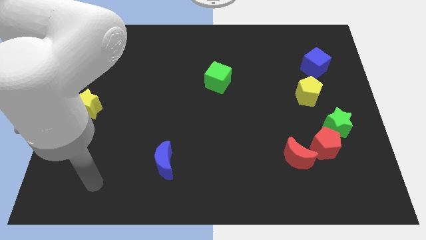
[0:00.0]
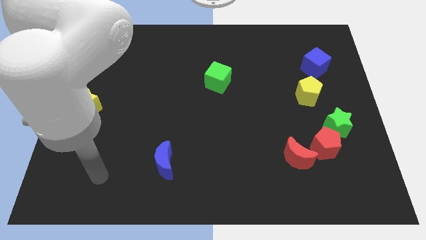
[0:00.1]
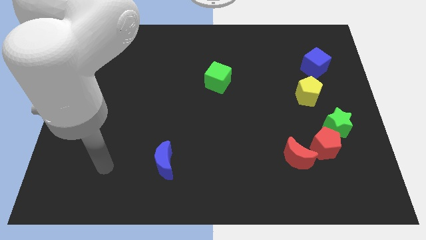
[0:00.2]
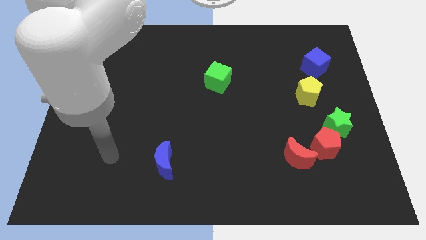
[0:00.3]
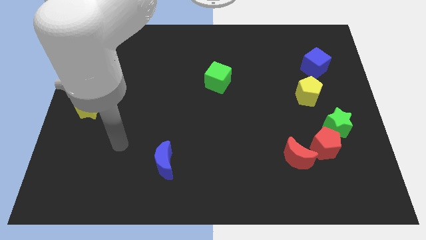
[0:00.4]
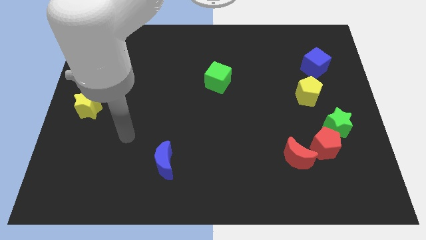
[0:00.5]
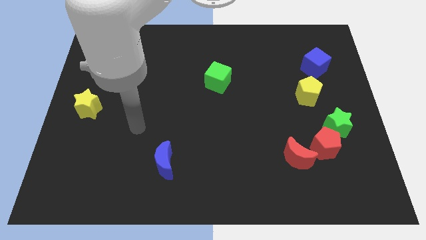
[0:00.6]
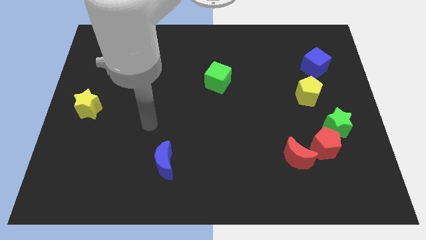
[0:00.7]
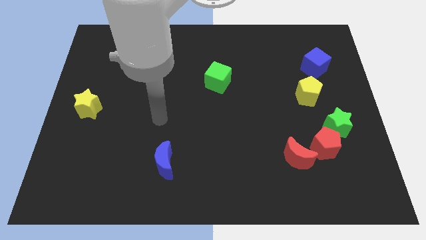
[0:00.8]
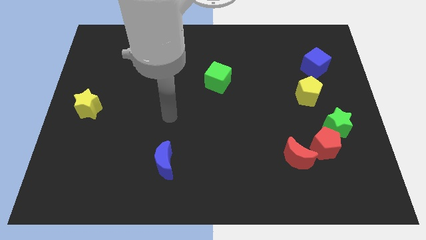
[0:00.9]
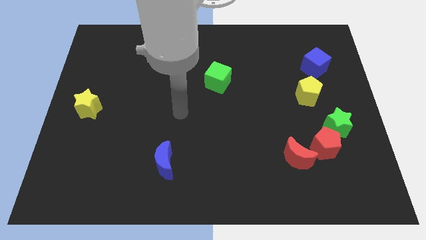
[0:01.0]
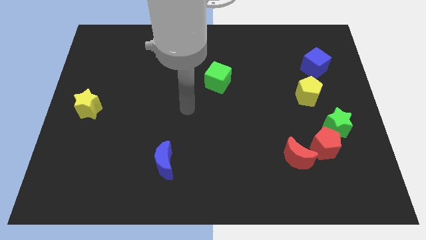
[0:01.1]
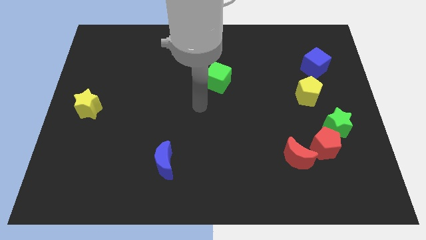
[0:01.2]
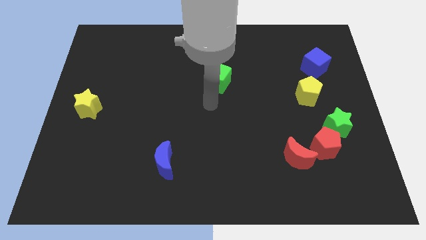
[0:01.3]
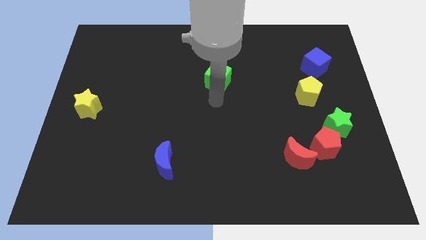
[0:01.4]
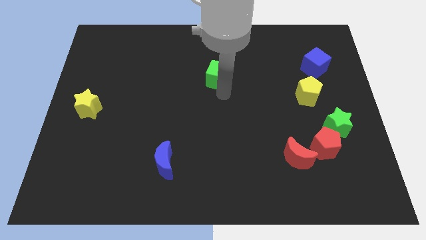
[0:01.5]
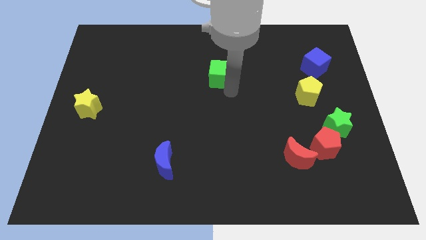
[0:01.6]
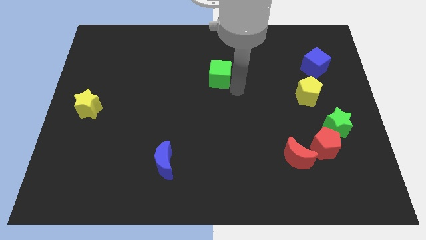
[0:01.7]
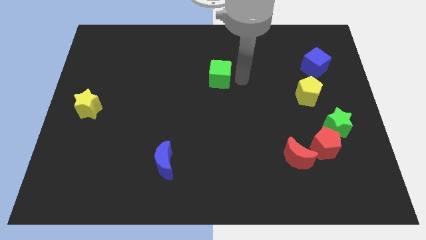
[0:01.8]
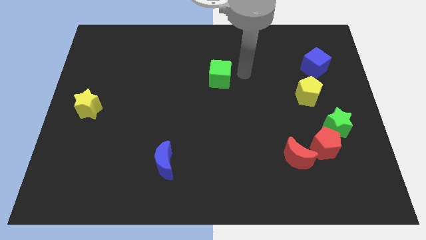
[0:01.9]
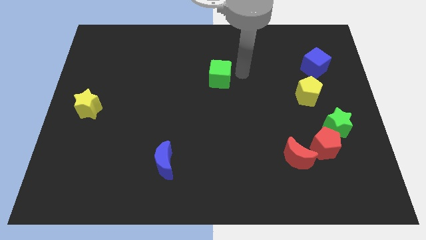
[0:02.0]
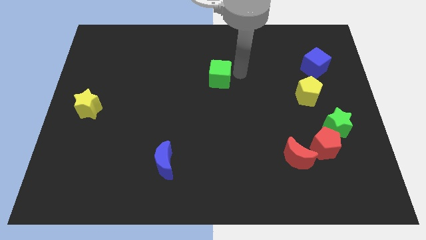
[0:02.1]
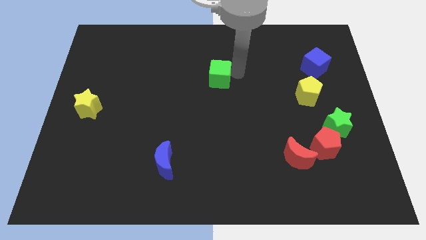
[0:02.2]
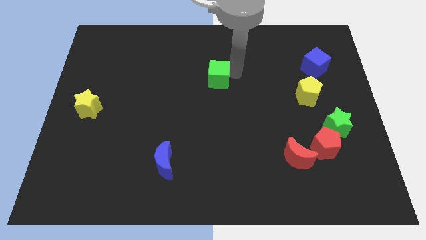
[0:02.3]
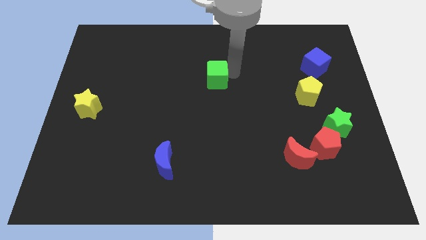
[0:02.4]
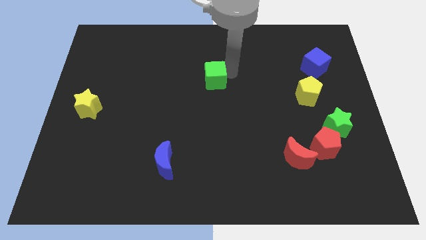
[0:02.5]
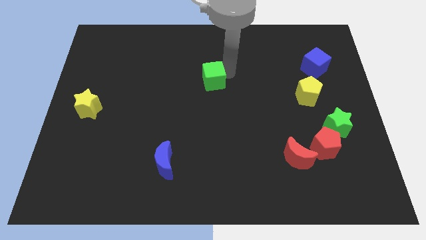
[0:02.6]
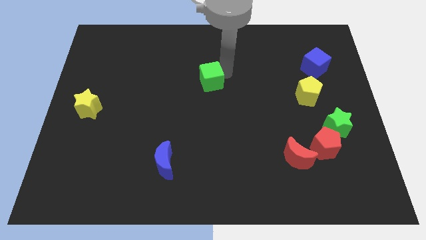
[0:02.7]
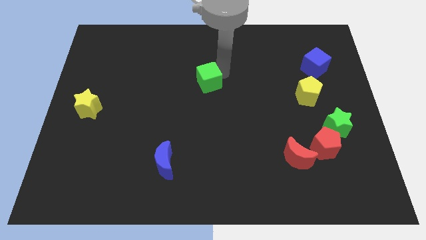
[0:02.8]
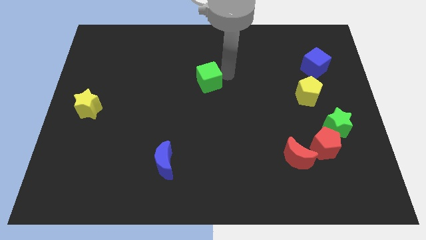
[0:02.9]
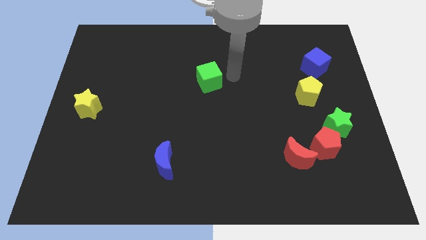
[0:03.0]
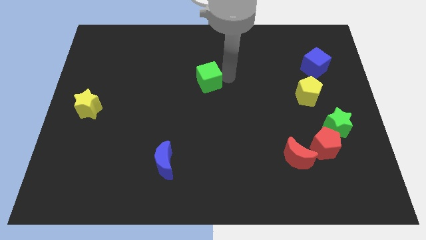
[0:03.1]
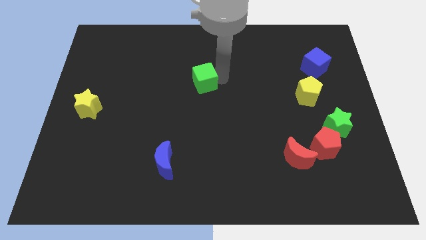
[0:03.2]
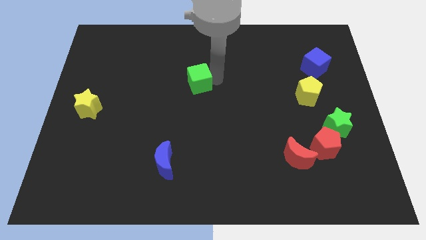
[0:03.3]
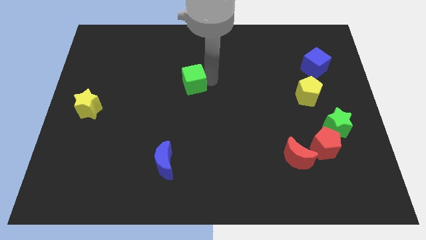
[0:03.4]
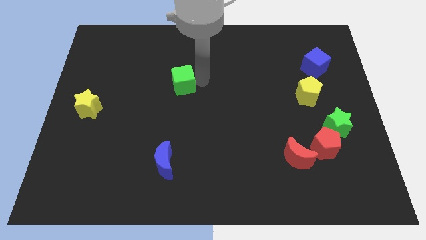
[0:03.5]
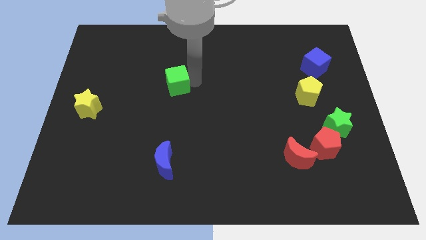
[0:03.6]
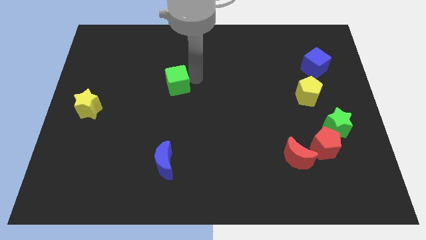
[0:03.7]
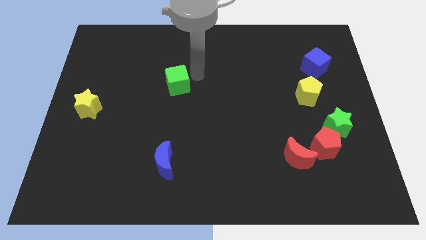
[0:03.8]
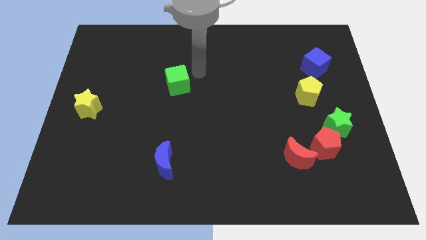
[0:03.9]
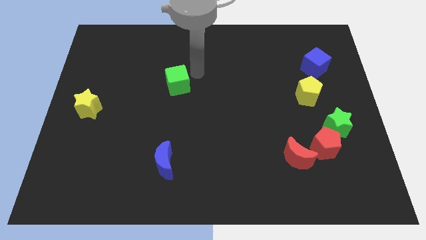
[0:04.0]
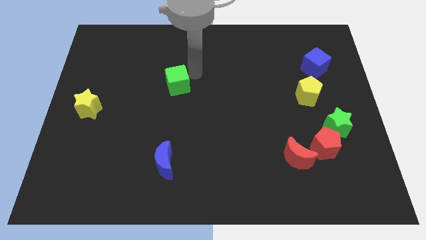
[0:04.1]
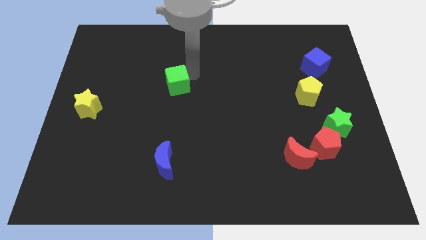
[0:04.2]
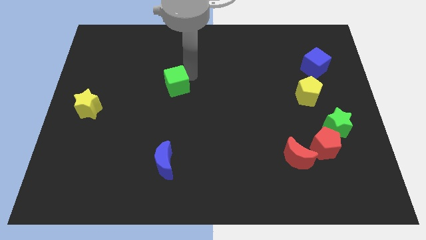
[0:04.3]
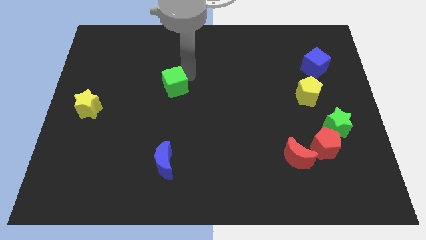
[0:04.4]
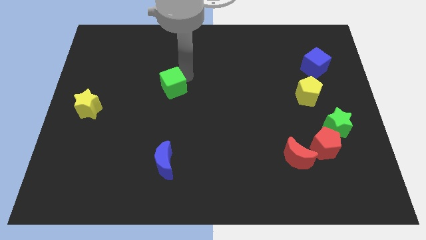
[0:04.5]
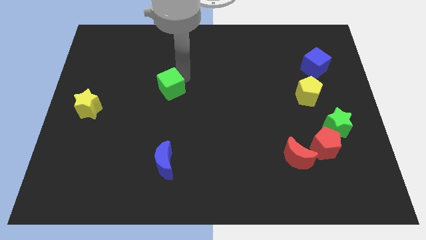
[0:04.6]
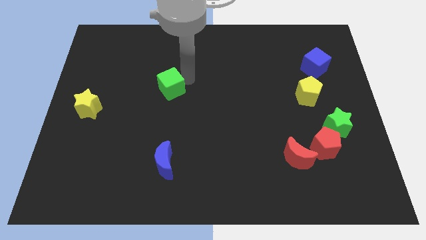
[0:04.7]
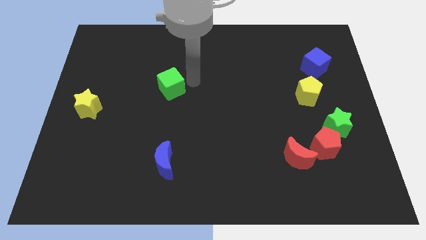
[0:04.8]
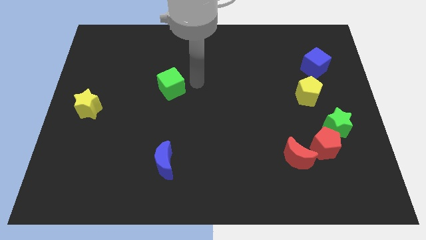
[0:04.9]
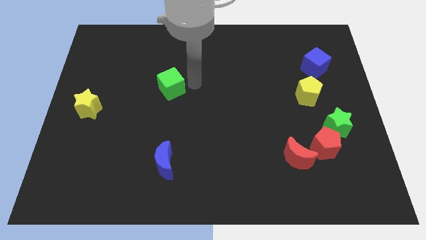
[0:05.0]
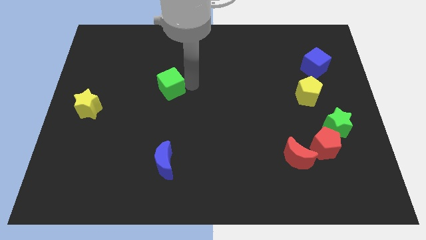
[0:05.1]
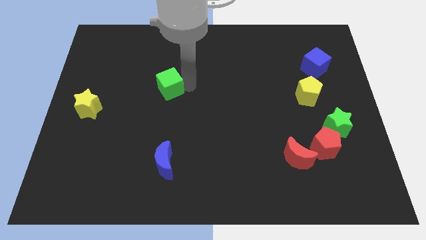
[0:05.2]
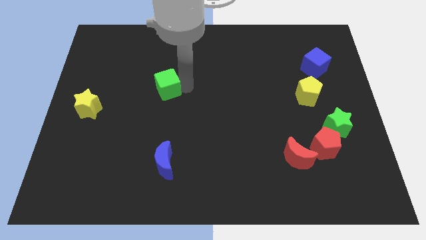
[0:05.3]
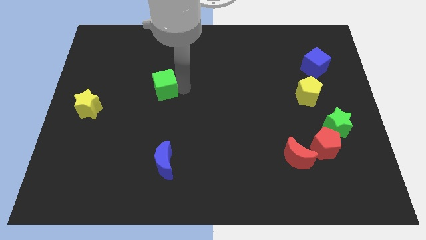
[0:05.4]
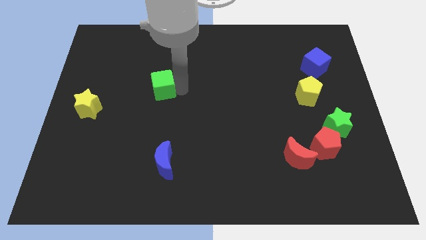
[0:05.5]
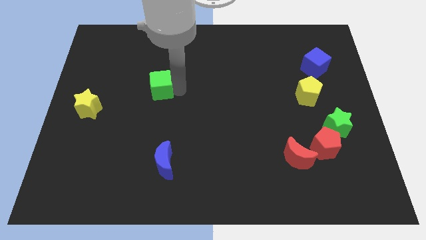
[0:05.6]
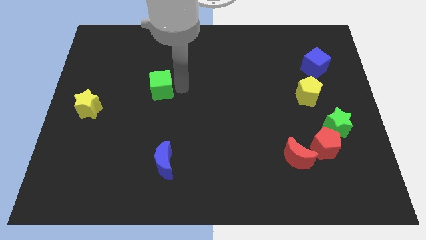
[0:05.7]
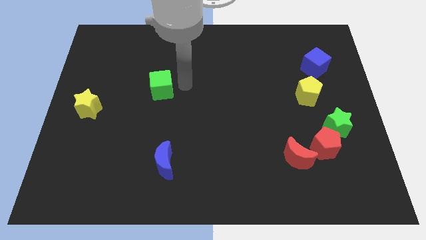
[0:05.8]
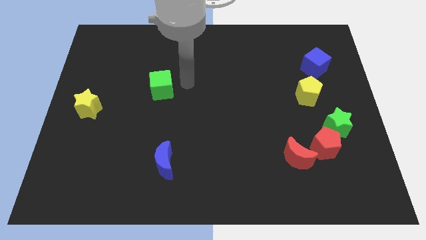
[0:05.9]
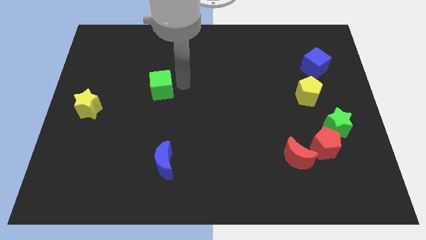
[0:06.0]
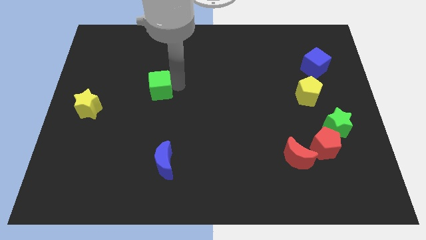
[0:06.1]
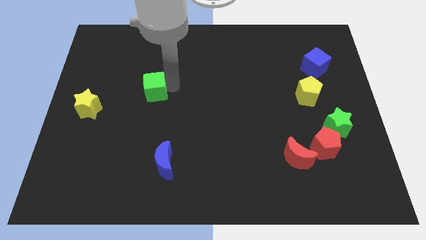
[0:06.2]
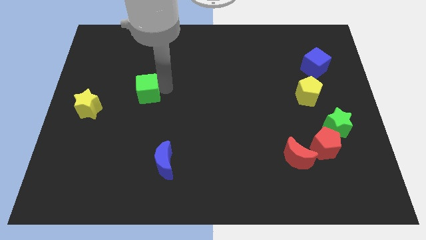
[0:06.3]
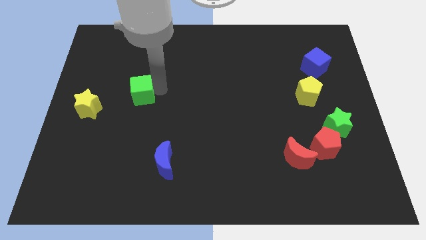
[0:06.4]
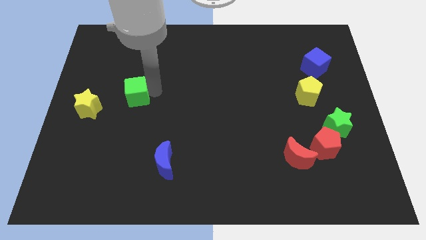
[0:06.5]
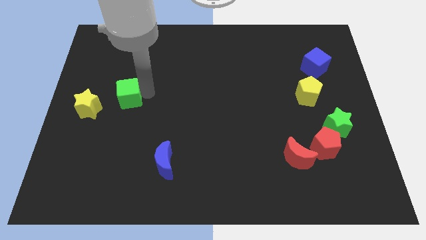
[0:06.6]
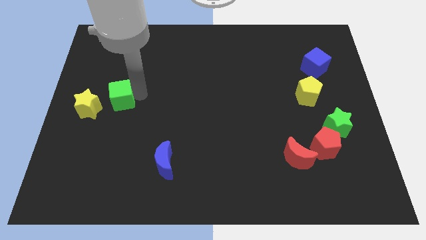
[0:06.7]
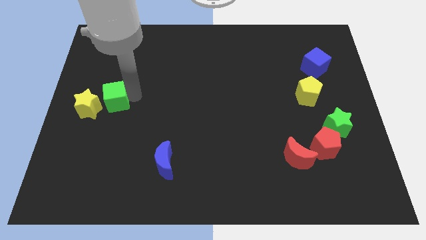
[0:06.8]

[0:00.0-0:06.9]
slide the green cube to the yellow star
